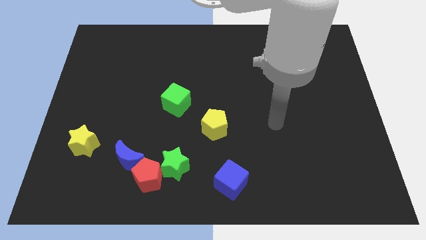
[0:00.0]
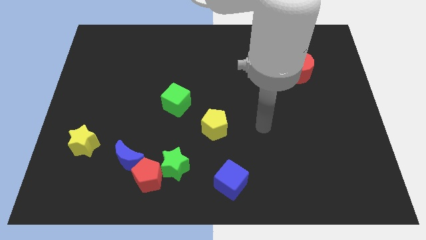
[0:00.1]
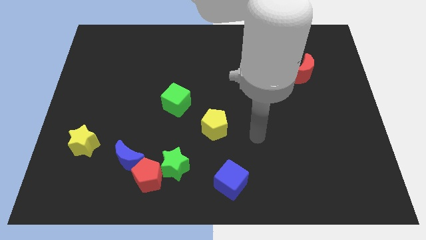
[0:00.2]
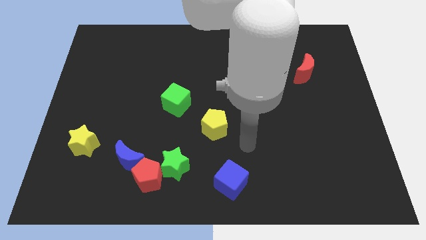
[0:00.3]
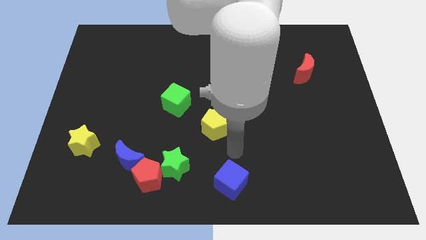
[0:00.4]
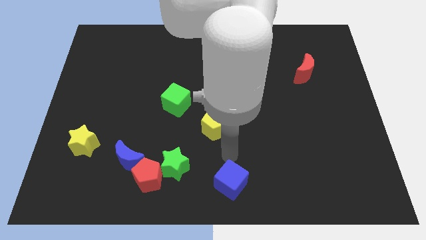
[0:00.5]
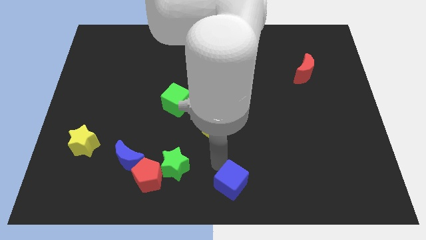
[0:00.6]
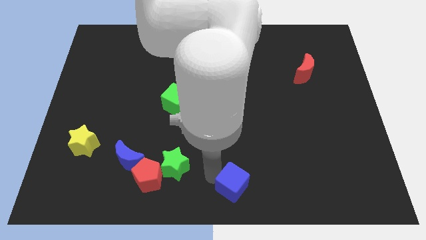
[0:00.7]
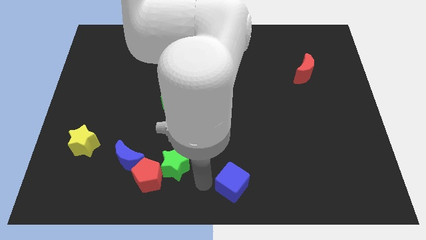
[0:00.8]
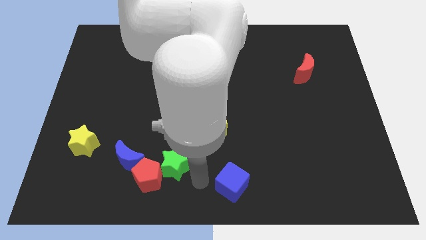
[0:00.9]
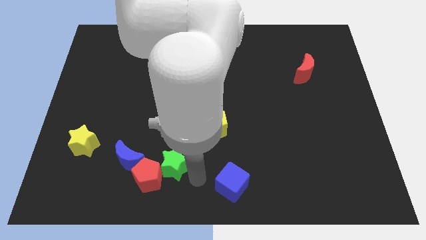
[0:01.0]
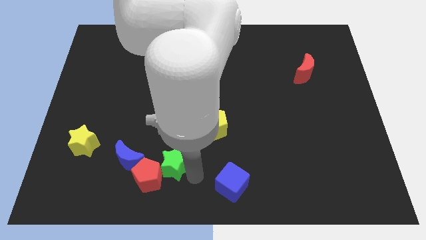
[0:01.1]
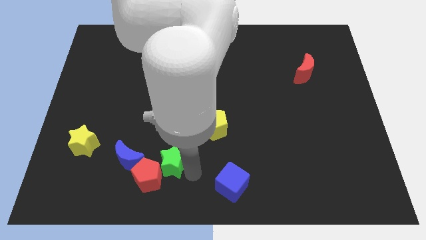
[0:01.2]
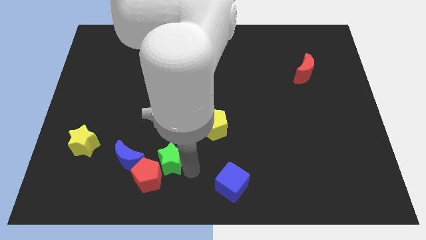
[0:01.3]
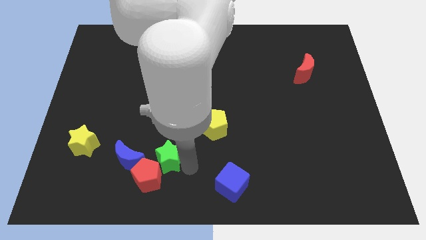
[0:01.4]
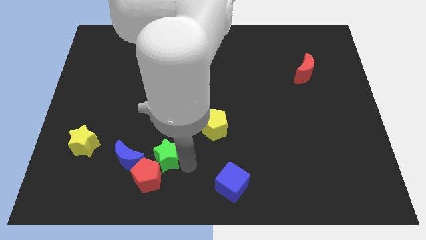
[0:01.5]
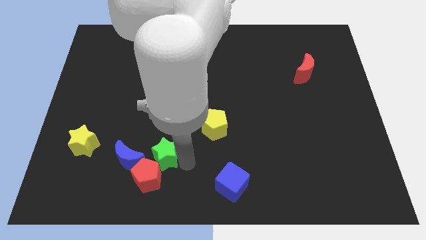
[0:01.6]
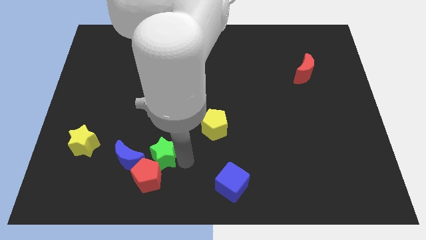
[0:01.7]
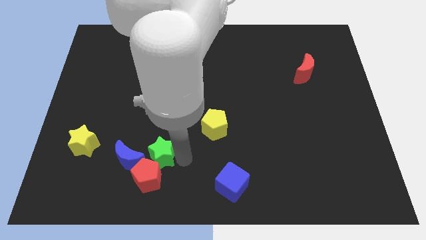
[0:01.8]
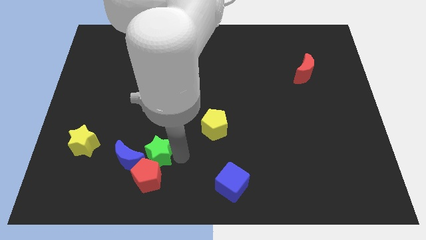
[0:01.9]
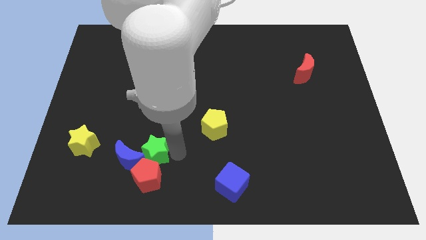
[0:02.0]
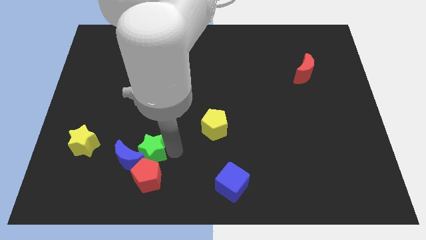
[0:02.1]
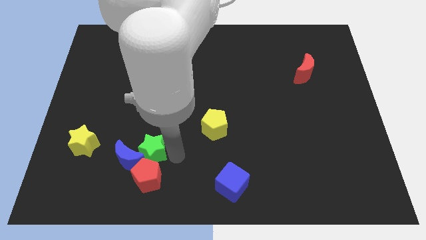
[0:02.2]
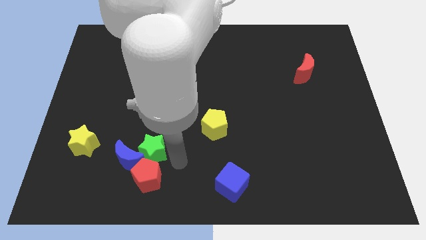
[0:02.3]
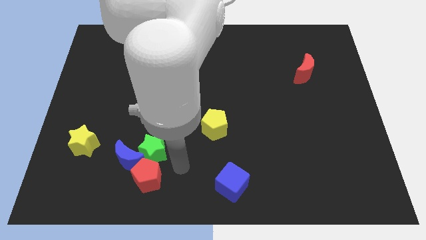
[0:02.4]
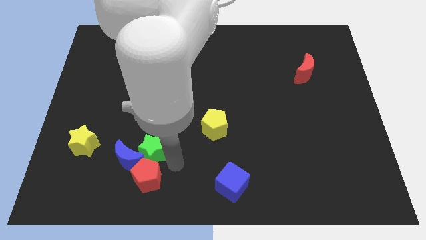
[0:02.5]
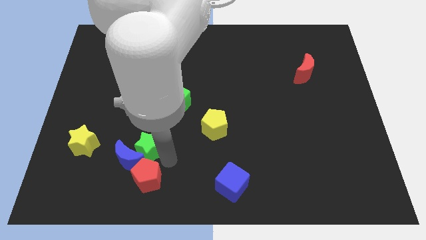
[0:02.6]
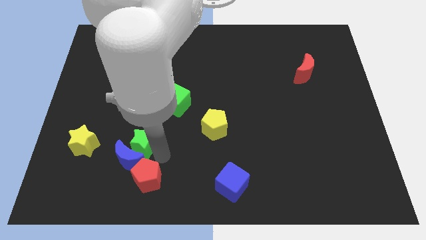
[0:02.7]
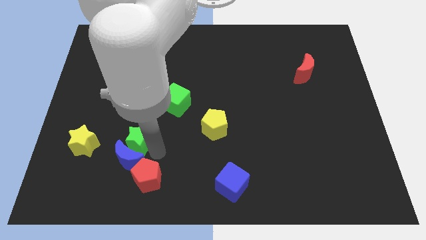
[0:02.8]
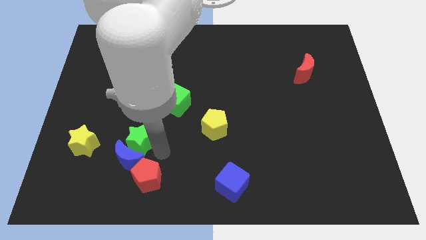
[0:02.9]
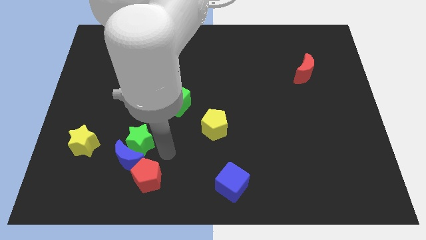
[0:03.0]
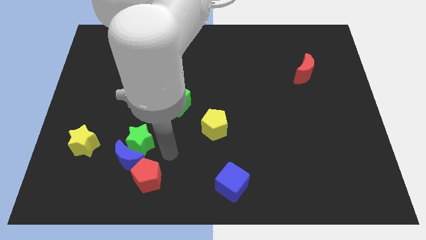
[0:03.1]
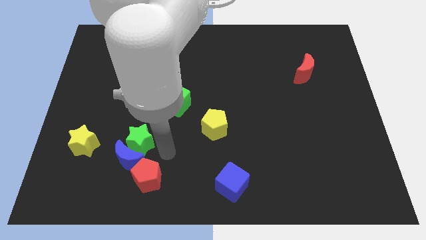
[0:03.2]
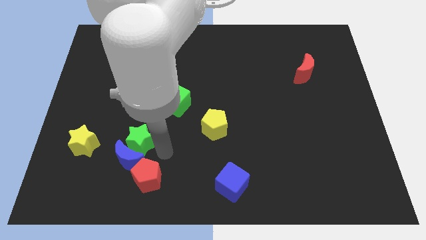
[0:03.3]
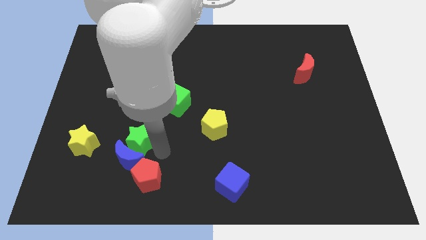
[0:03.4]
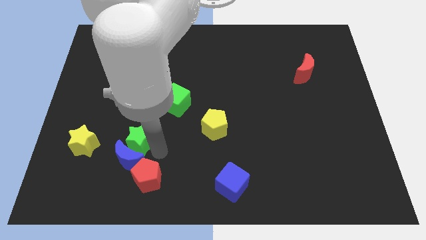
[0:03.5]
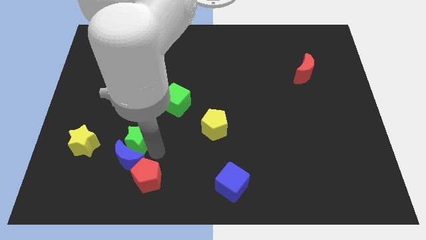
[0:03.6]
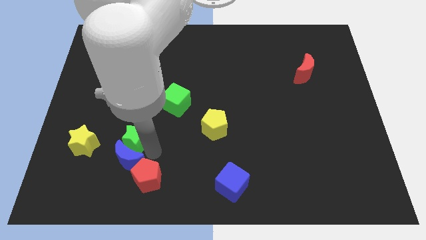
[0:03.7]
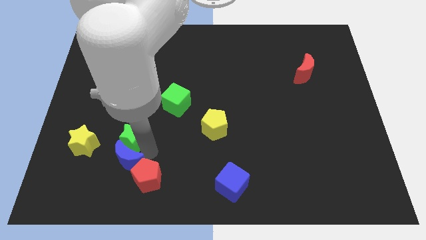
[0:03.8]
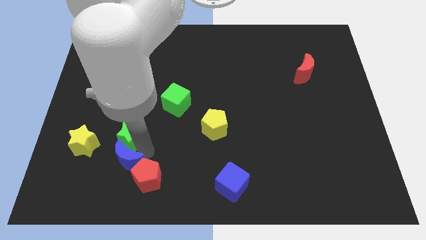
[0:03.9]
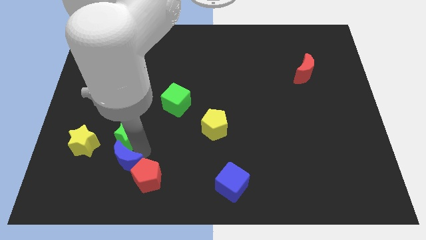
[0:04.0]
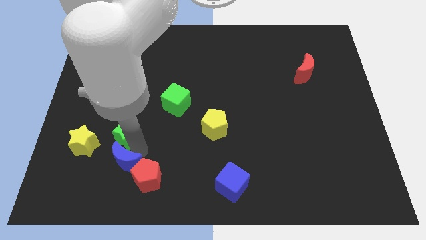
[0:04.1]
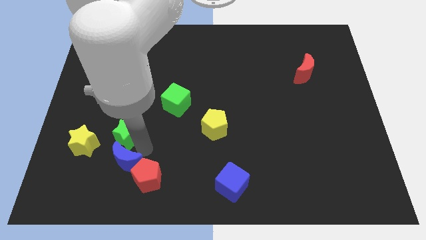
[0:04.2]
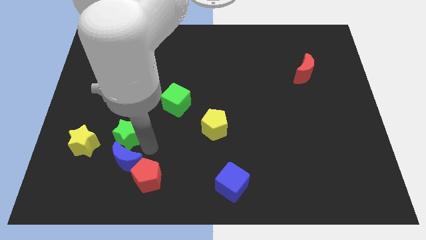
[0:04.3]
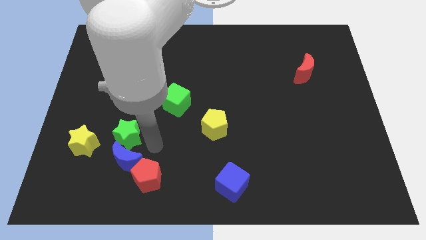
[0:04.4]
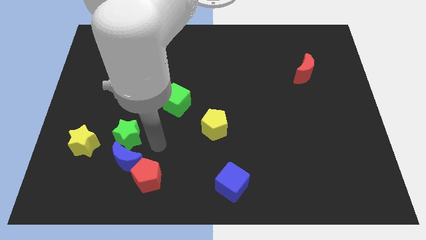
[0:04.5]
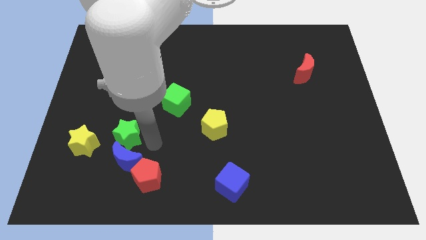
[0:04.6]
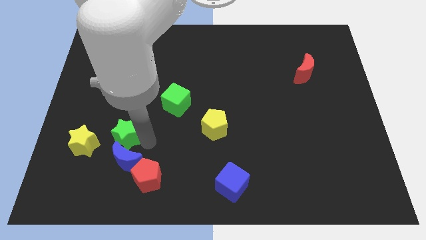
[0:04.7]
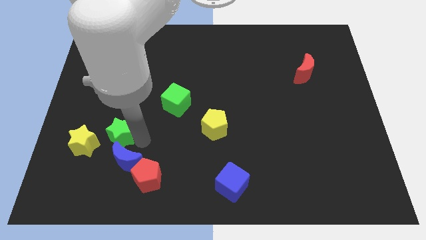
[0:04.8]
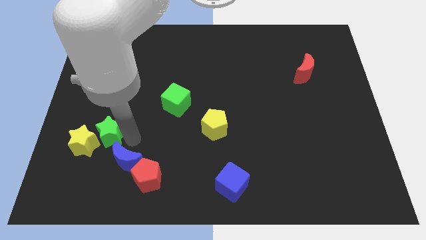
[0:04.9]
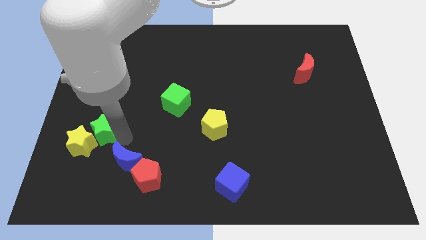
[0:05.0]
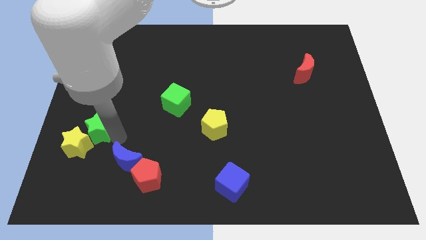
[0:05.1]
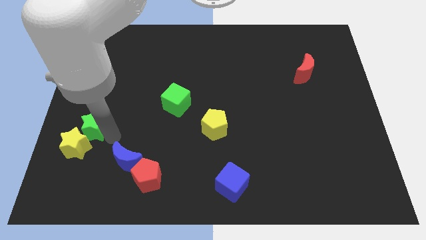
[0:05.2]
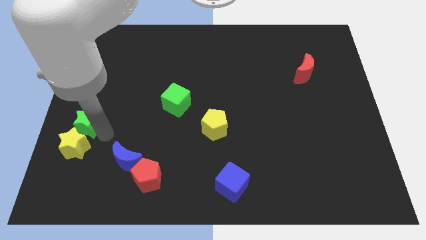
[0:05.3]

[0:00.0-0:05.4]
slide the green star to the left side of the board

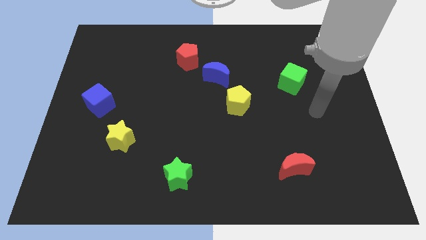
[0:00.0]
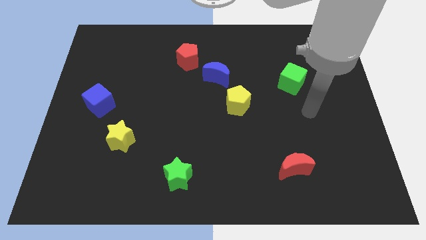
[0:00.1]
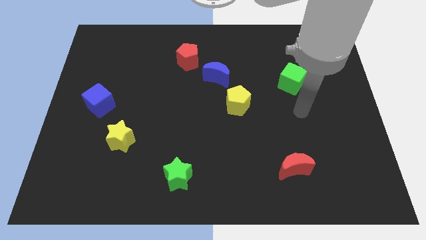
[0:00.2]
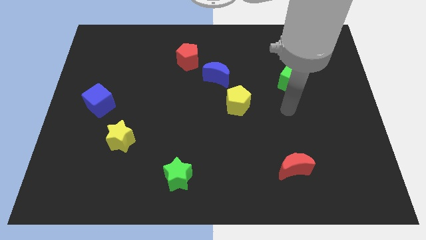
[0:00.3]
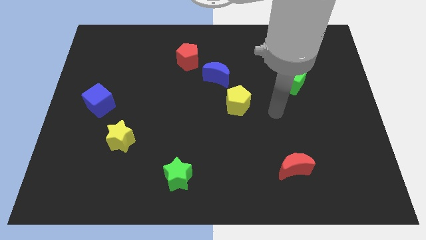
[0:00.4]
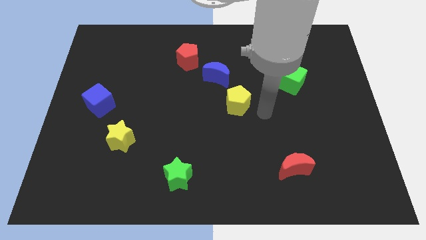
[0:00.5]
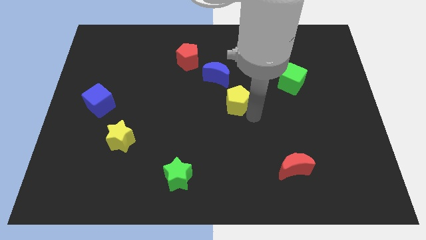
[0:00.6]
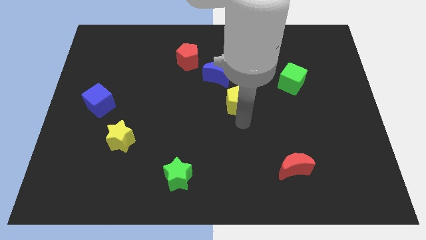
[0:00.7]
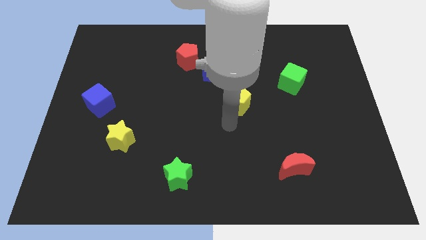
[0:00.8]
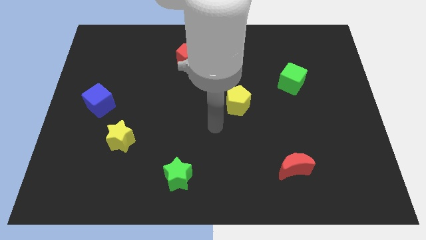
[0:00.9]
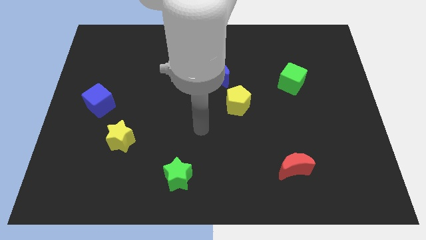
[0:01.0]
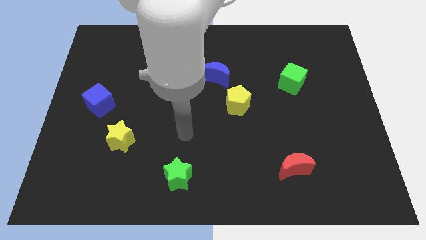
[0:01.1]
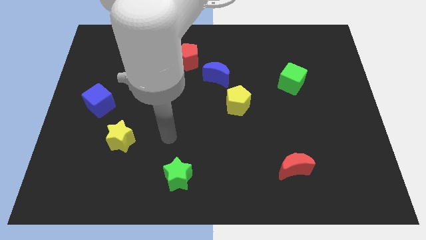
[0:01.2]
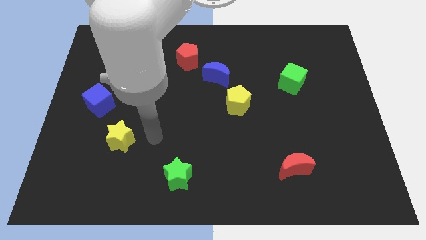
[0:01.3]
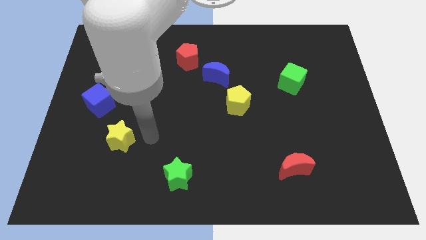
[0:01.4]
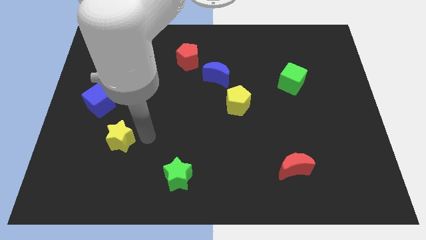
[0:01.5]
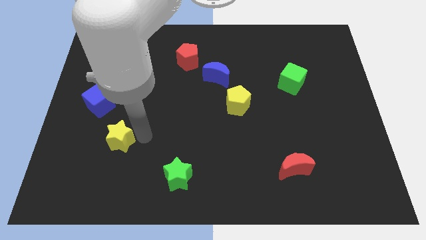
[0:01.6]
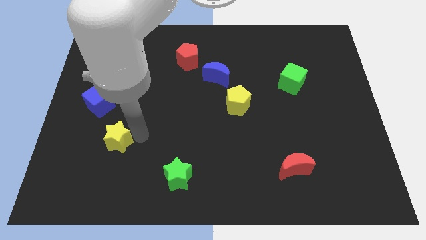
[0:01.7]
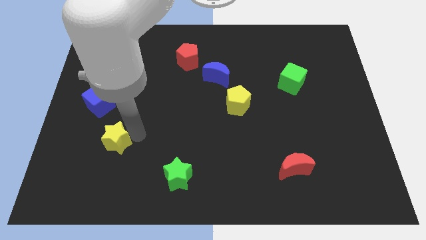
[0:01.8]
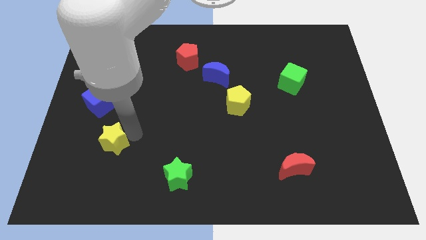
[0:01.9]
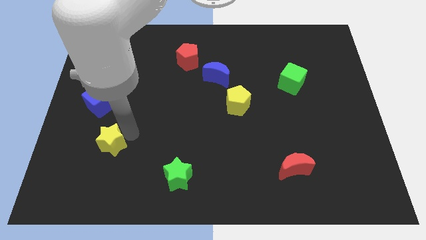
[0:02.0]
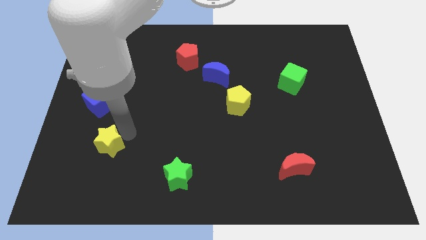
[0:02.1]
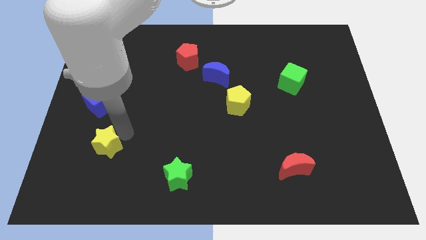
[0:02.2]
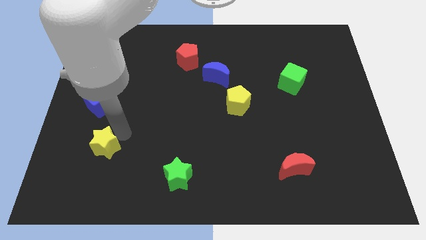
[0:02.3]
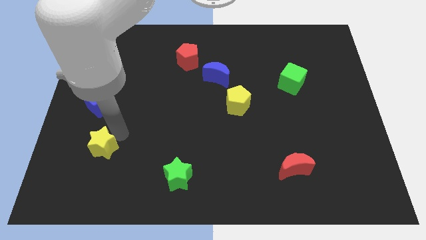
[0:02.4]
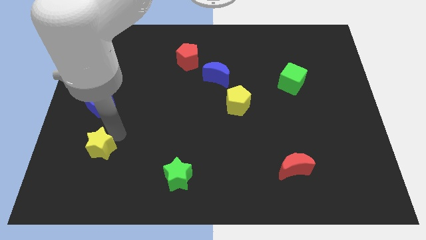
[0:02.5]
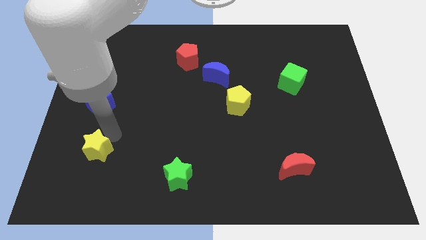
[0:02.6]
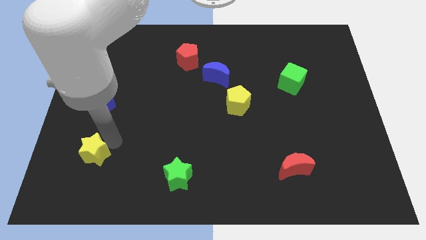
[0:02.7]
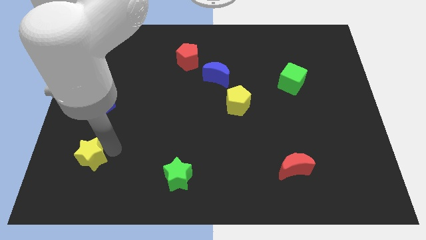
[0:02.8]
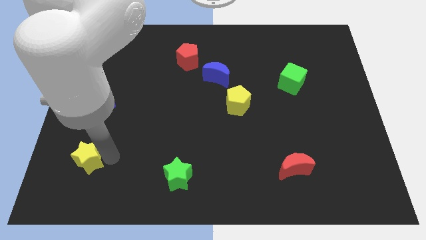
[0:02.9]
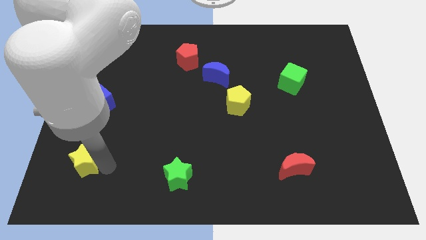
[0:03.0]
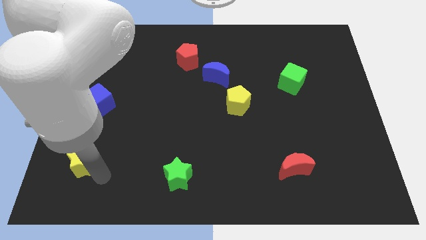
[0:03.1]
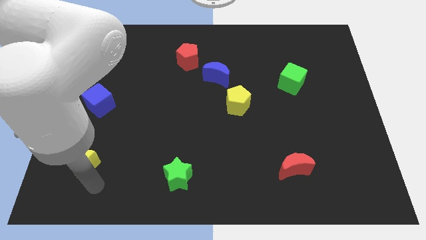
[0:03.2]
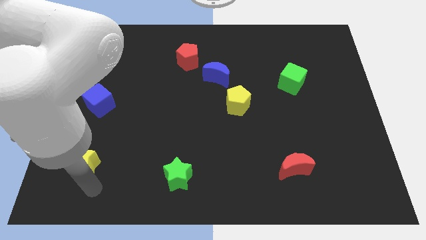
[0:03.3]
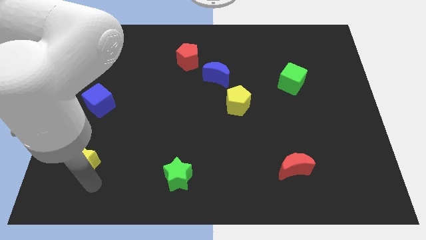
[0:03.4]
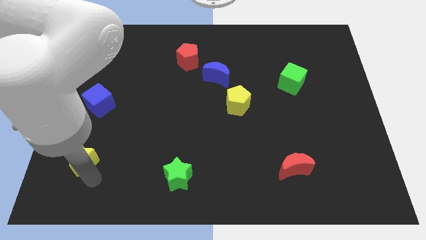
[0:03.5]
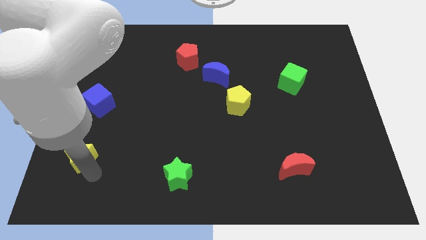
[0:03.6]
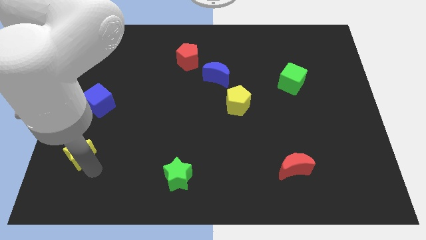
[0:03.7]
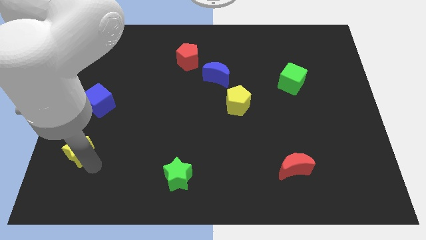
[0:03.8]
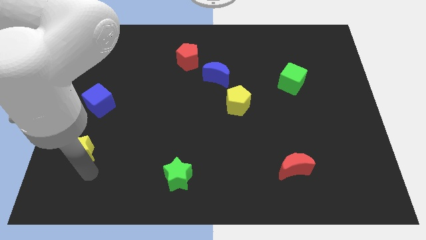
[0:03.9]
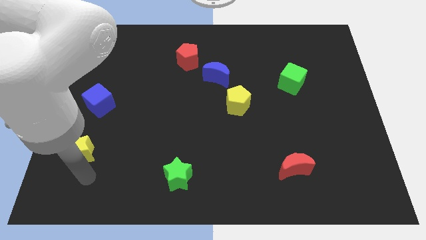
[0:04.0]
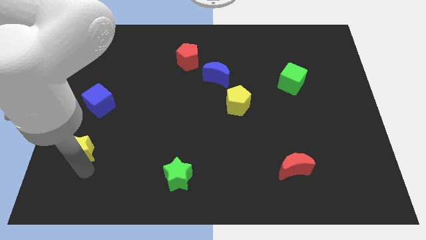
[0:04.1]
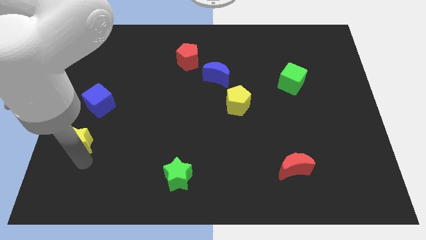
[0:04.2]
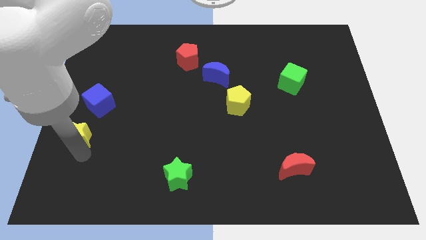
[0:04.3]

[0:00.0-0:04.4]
push the yellow star to the left side of the board
